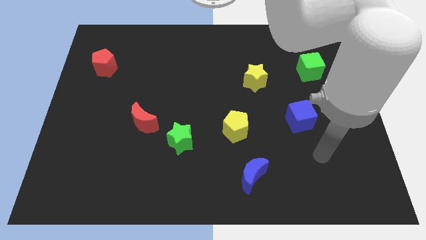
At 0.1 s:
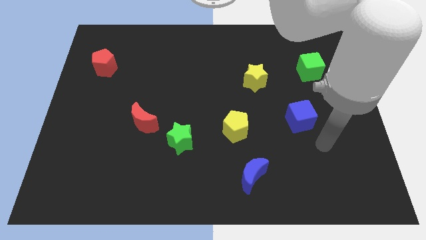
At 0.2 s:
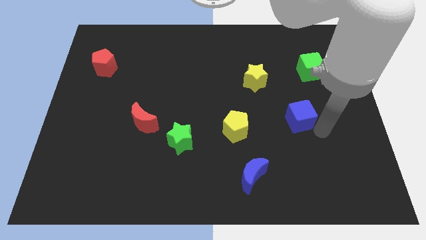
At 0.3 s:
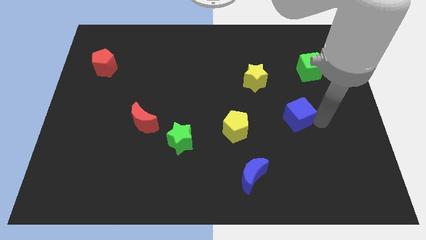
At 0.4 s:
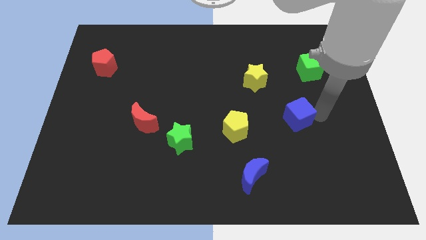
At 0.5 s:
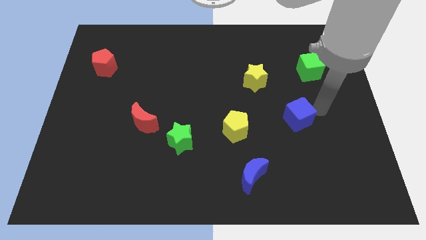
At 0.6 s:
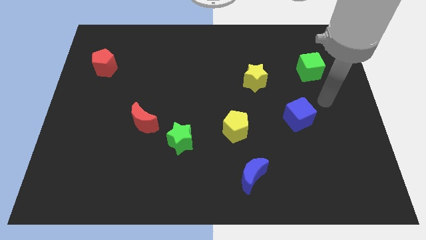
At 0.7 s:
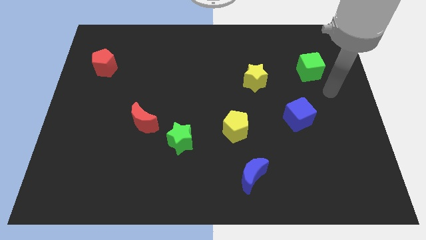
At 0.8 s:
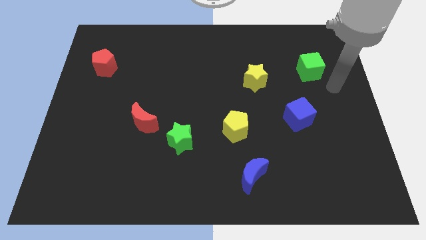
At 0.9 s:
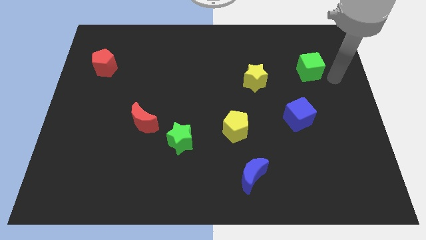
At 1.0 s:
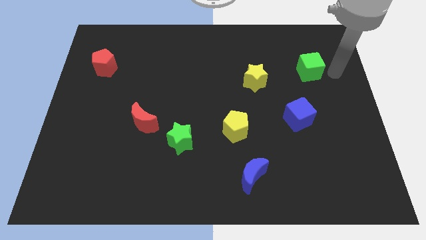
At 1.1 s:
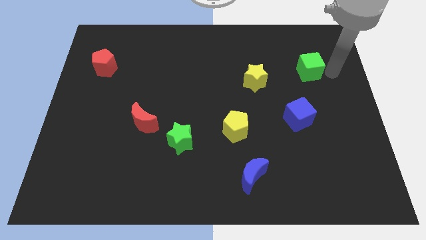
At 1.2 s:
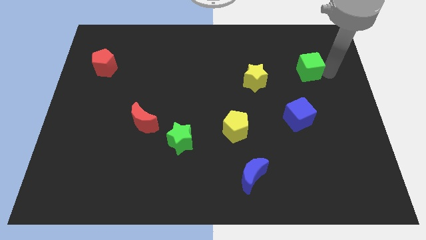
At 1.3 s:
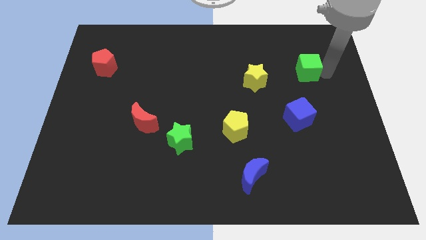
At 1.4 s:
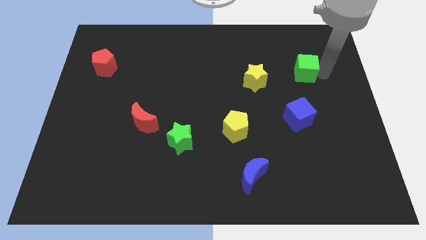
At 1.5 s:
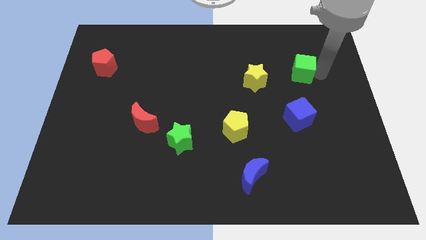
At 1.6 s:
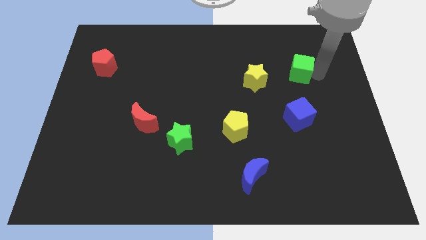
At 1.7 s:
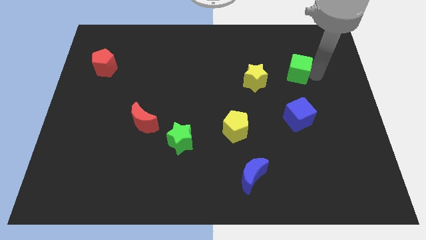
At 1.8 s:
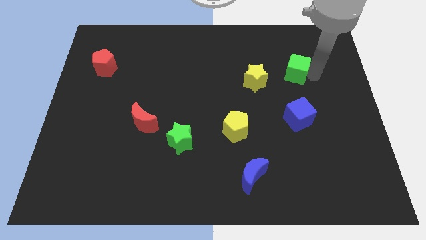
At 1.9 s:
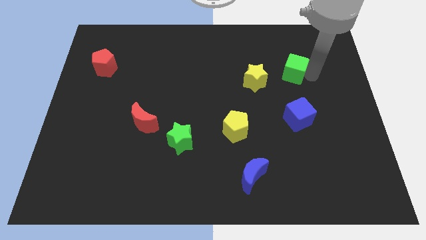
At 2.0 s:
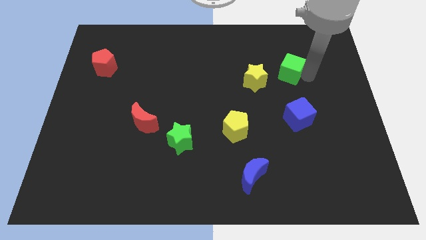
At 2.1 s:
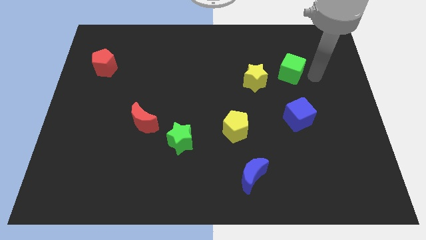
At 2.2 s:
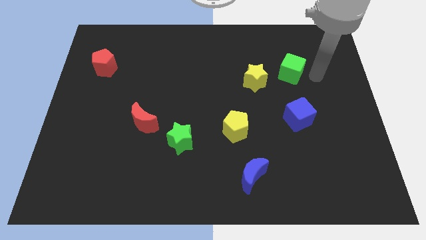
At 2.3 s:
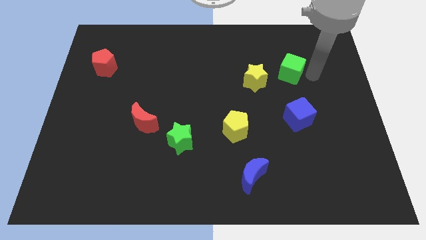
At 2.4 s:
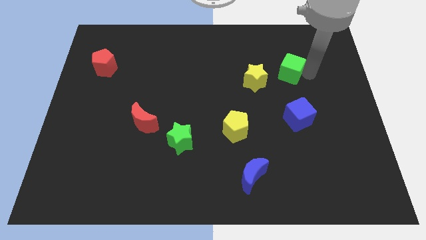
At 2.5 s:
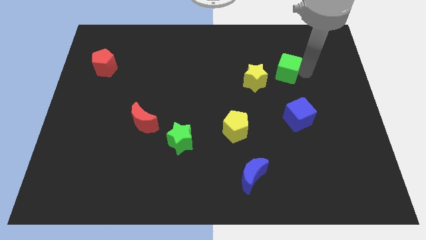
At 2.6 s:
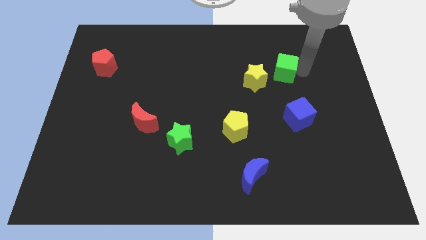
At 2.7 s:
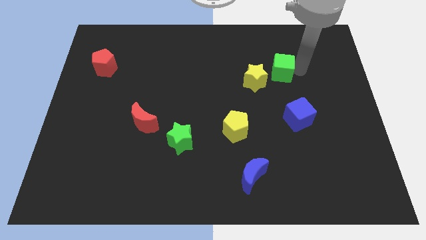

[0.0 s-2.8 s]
slightly move the green cube to the left

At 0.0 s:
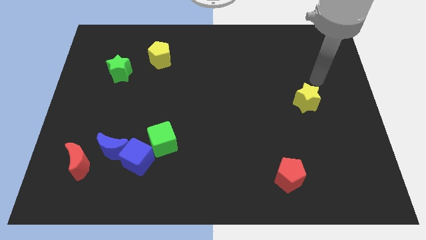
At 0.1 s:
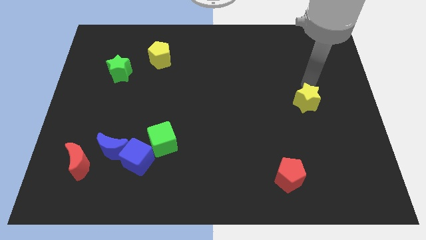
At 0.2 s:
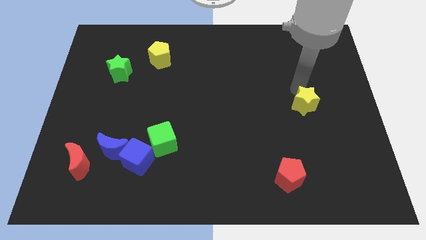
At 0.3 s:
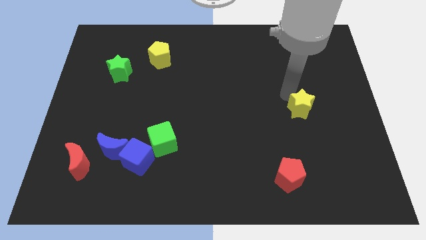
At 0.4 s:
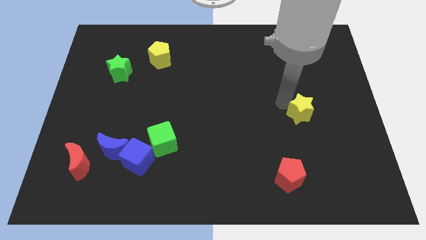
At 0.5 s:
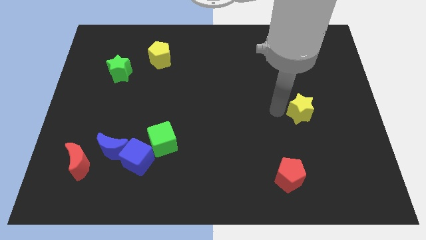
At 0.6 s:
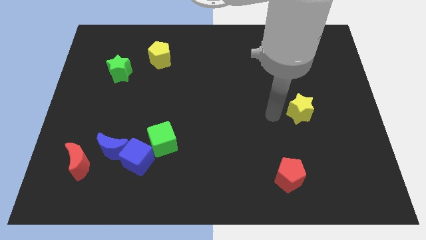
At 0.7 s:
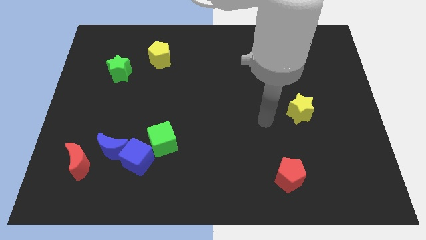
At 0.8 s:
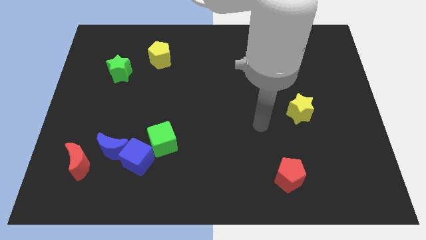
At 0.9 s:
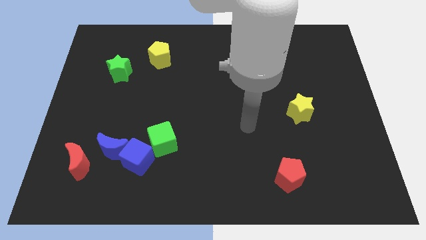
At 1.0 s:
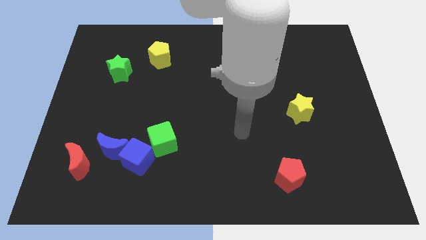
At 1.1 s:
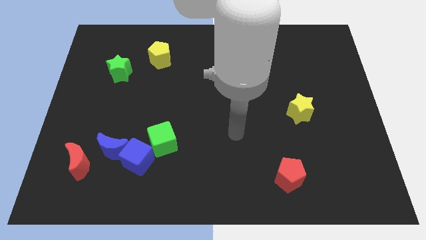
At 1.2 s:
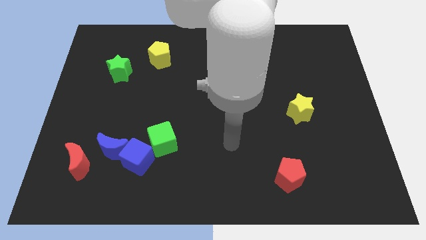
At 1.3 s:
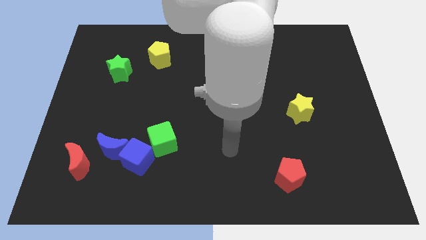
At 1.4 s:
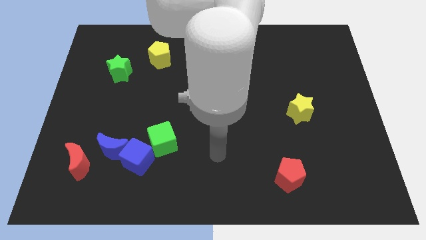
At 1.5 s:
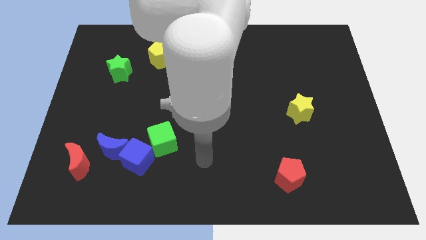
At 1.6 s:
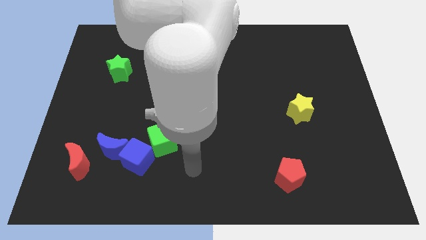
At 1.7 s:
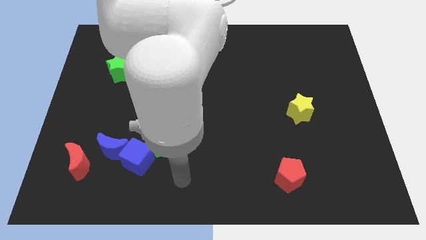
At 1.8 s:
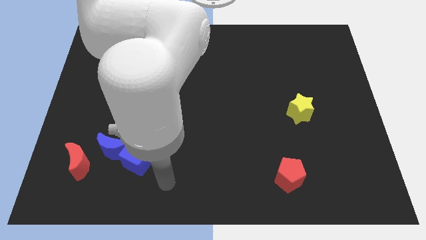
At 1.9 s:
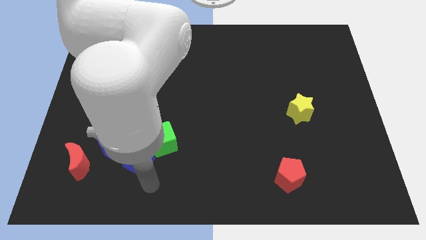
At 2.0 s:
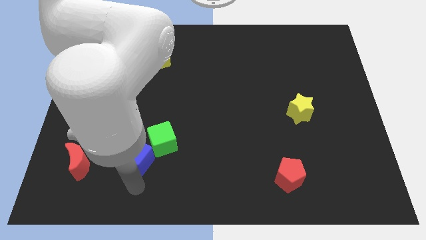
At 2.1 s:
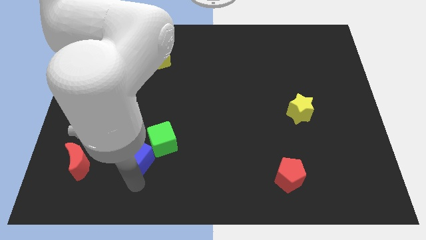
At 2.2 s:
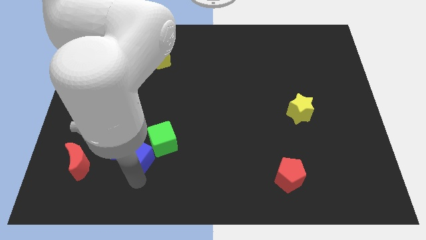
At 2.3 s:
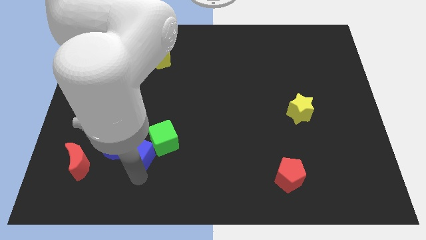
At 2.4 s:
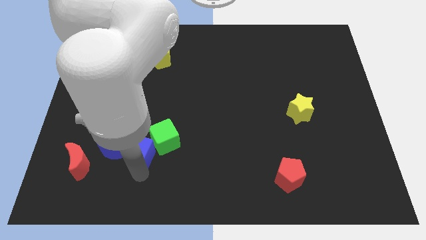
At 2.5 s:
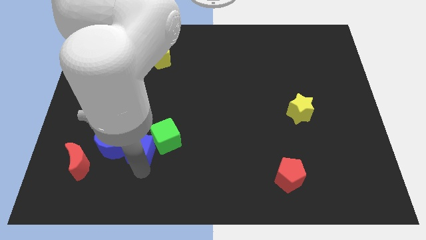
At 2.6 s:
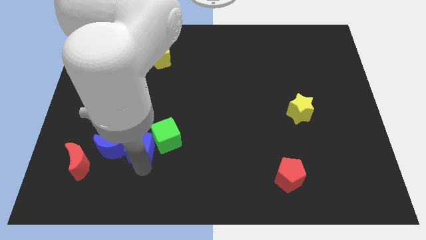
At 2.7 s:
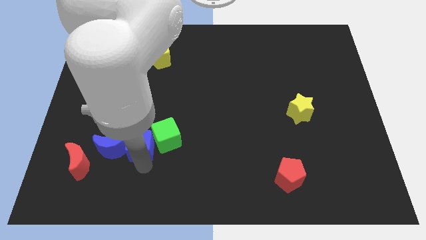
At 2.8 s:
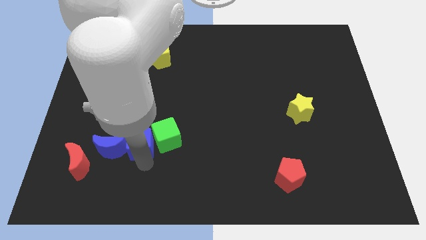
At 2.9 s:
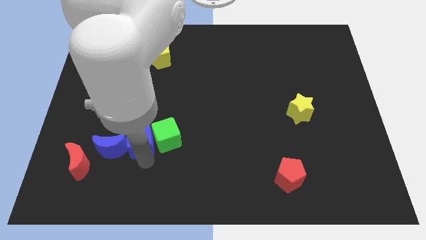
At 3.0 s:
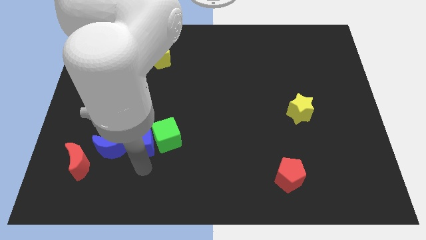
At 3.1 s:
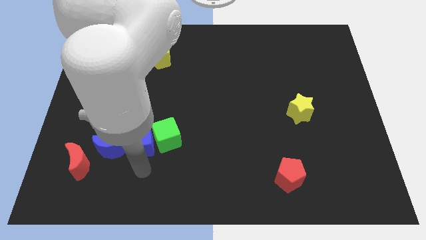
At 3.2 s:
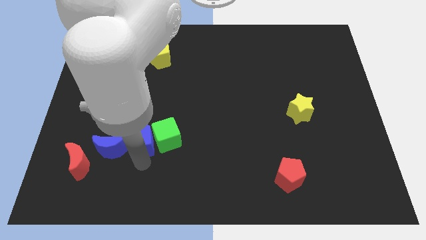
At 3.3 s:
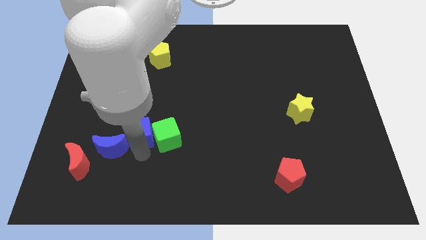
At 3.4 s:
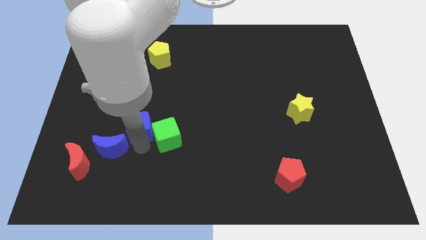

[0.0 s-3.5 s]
move the blue cube a little bit upwards

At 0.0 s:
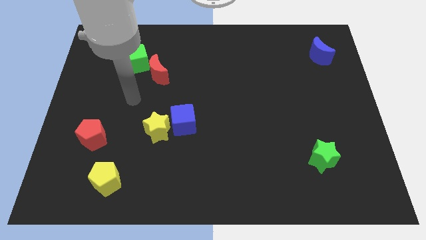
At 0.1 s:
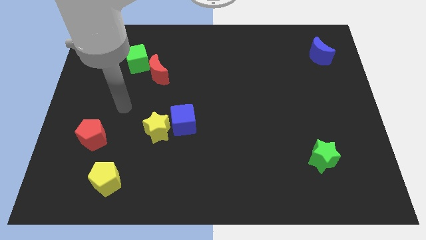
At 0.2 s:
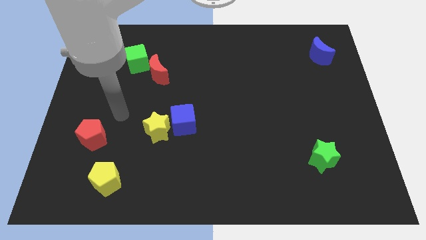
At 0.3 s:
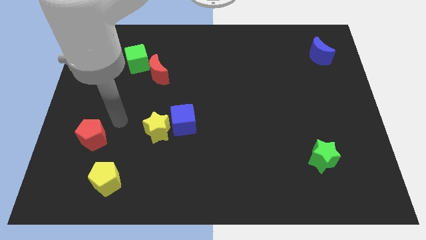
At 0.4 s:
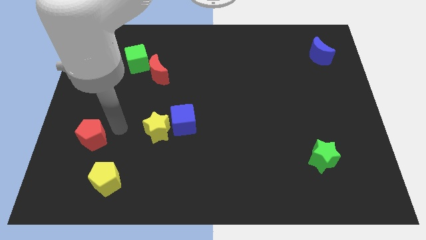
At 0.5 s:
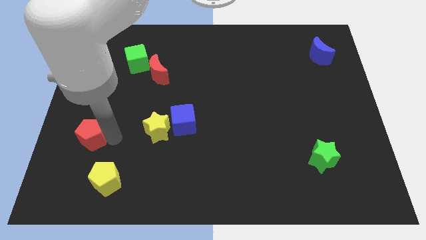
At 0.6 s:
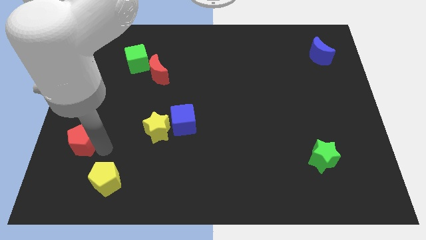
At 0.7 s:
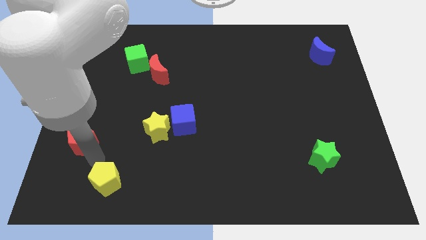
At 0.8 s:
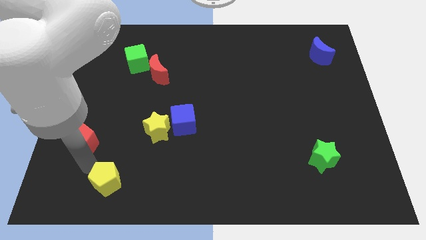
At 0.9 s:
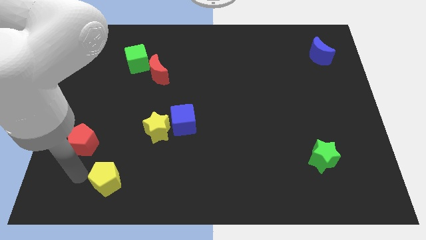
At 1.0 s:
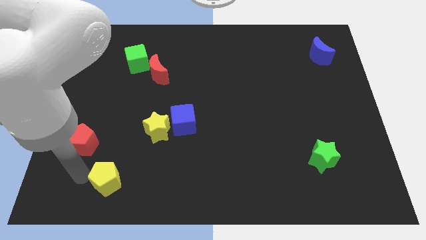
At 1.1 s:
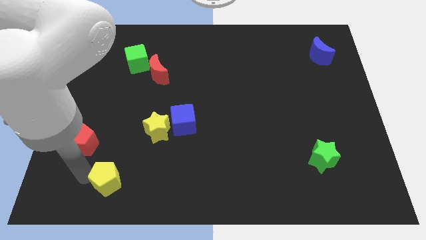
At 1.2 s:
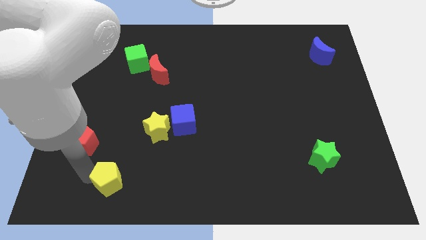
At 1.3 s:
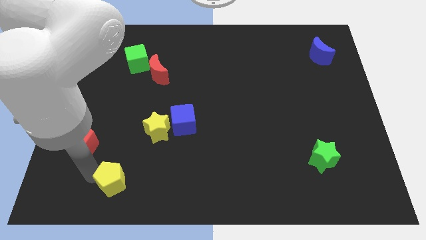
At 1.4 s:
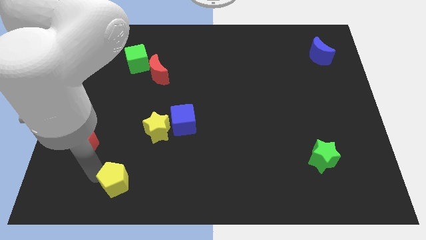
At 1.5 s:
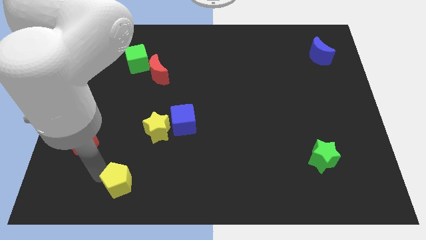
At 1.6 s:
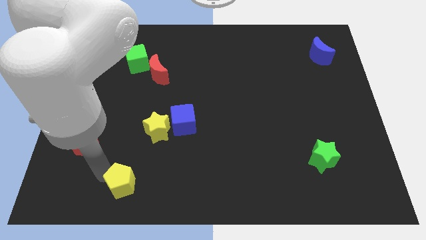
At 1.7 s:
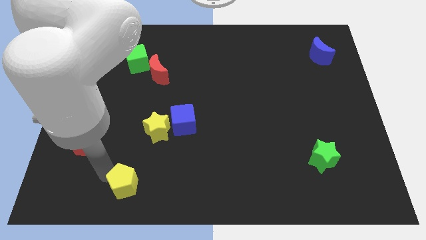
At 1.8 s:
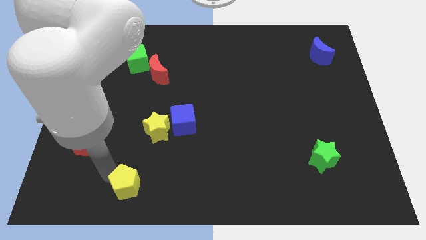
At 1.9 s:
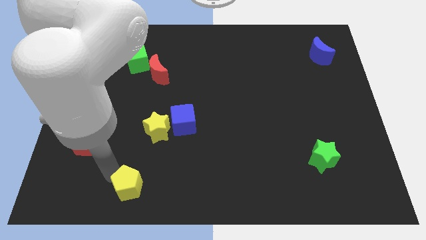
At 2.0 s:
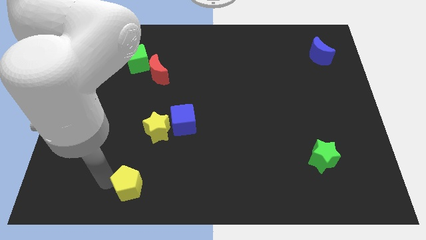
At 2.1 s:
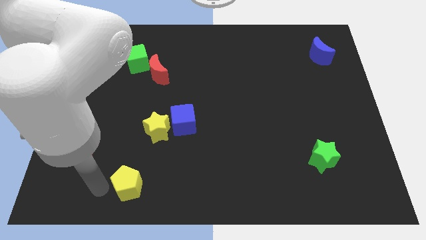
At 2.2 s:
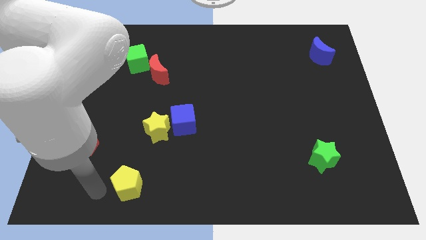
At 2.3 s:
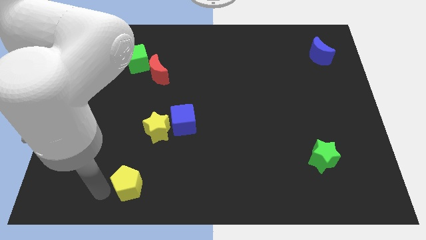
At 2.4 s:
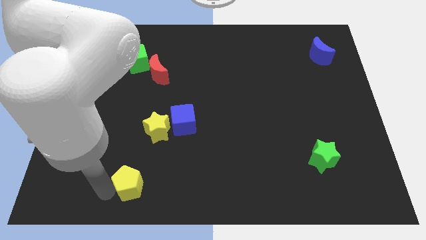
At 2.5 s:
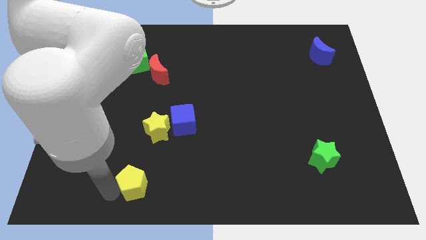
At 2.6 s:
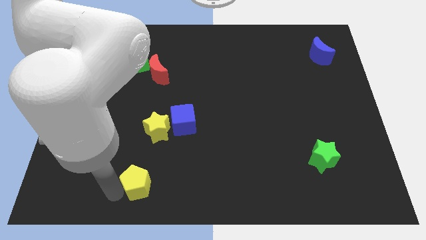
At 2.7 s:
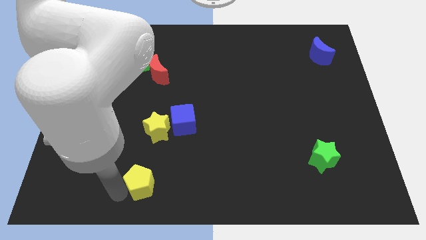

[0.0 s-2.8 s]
move the yellow pentagon a little bit right
